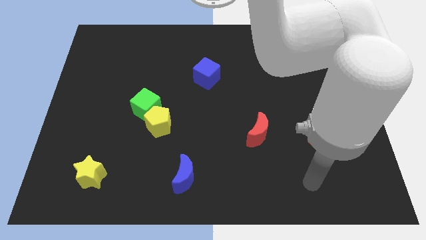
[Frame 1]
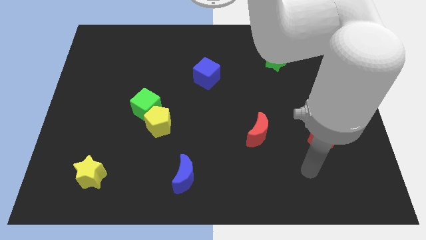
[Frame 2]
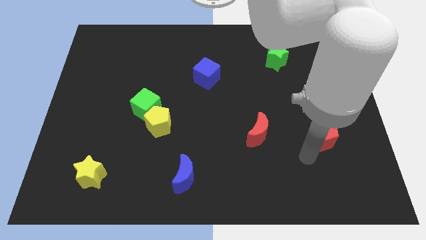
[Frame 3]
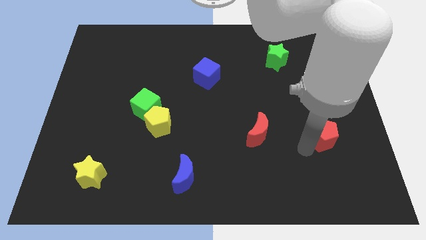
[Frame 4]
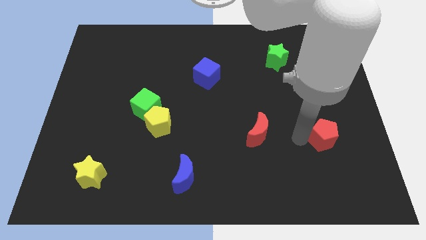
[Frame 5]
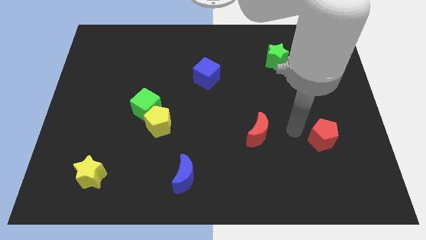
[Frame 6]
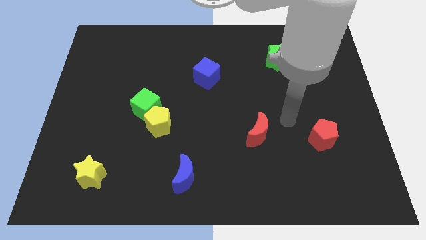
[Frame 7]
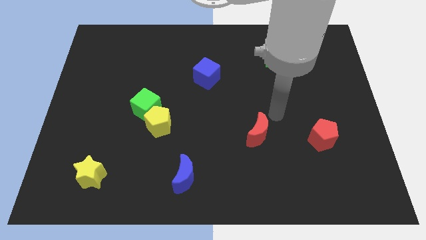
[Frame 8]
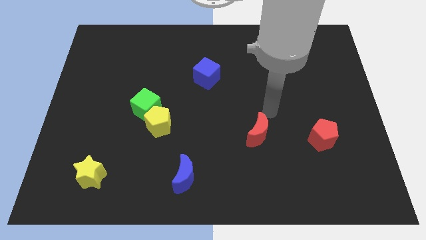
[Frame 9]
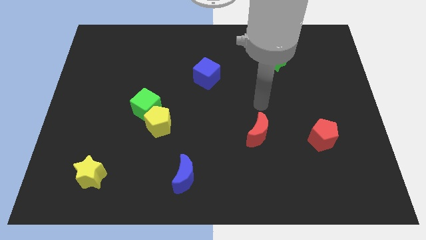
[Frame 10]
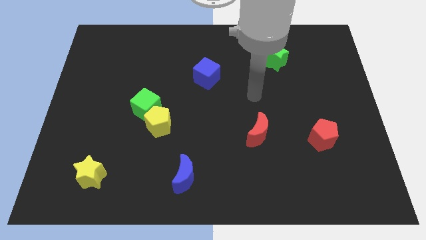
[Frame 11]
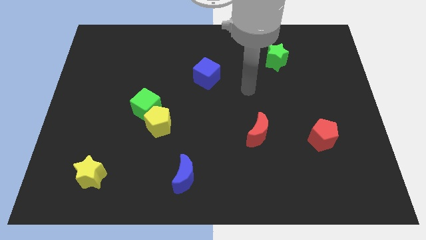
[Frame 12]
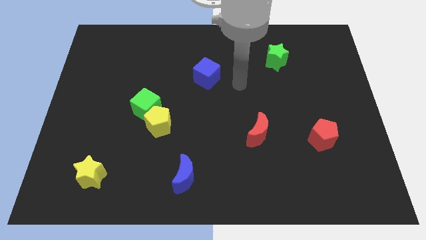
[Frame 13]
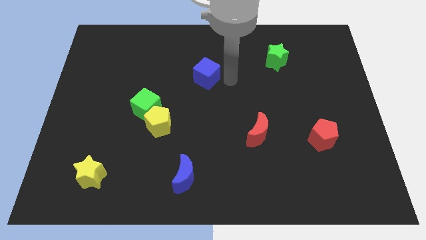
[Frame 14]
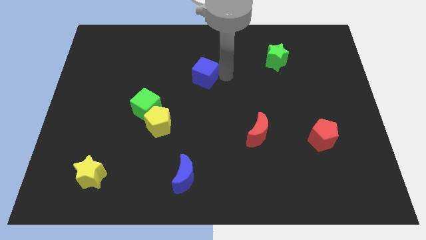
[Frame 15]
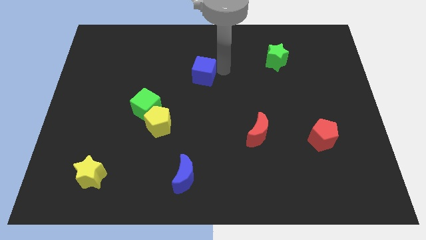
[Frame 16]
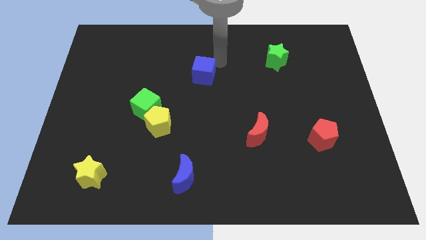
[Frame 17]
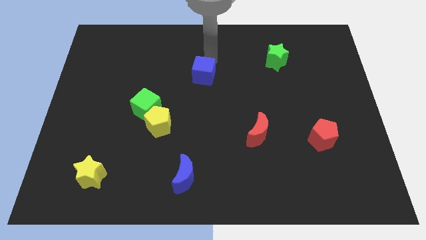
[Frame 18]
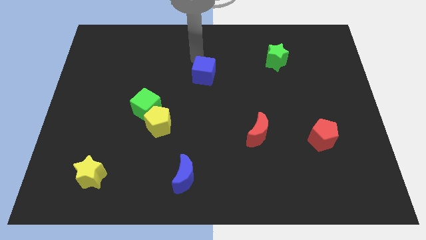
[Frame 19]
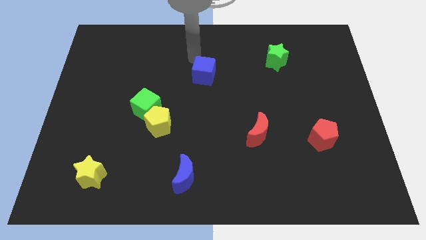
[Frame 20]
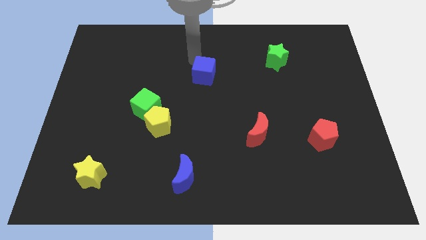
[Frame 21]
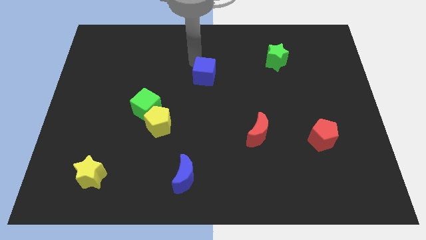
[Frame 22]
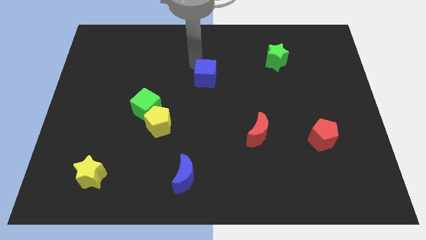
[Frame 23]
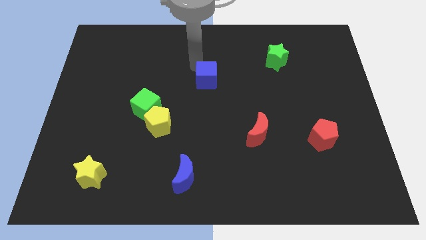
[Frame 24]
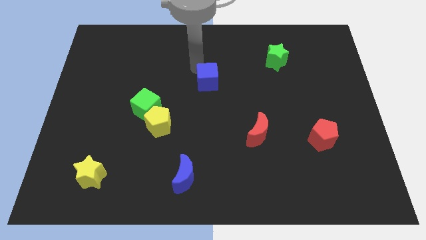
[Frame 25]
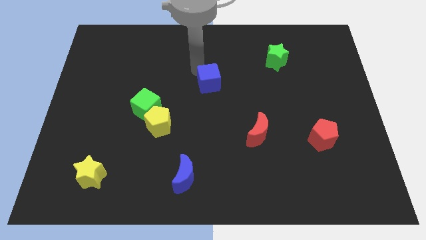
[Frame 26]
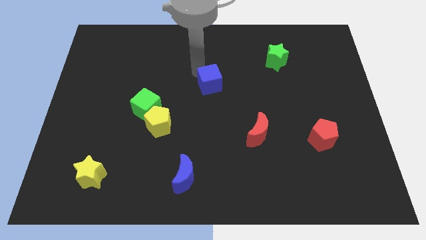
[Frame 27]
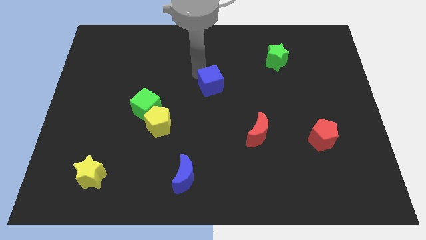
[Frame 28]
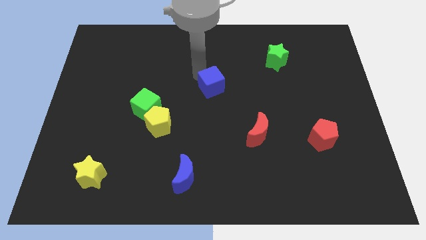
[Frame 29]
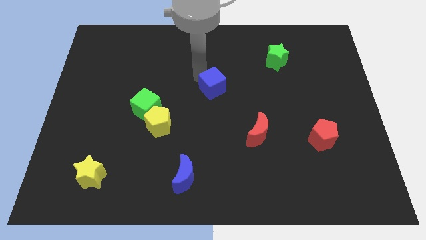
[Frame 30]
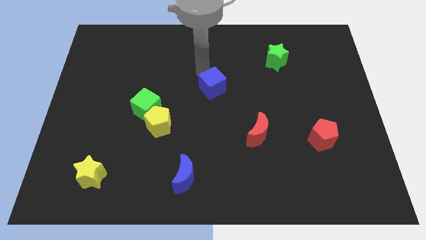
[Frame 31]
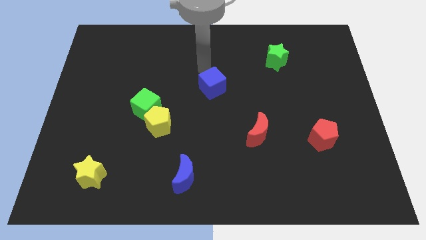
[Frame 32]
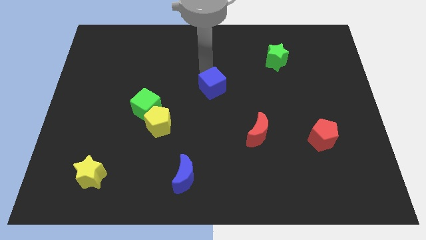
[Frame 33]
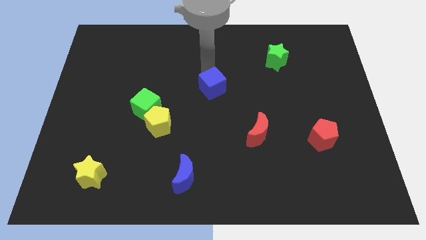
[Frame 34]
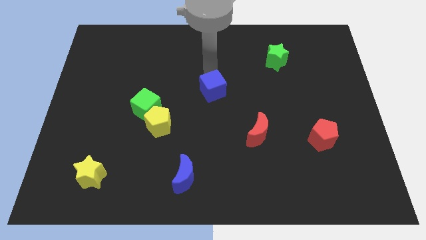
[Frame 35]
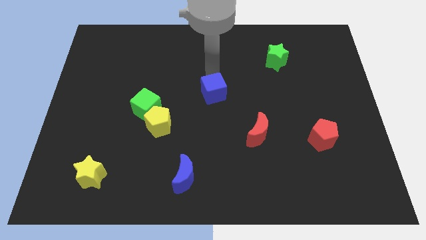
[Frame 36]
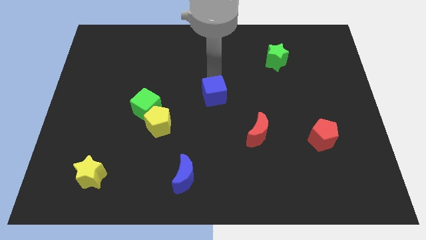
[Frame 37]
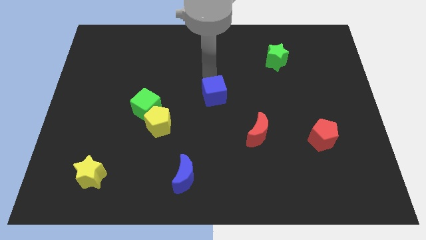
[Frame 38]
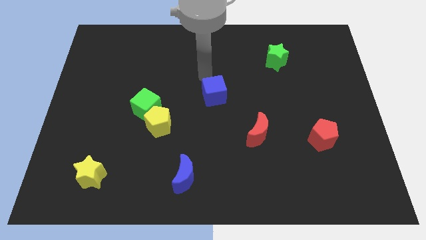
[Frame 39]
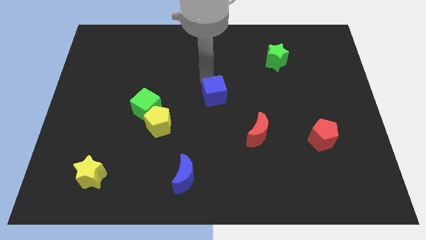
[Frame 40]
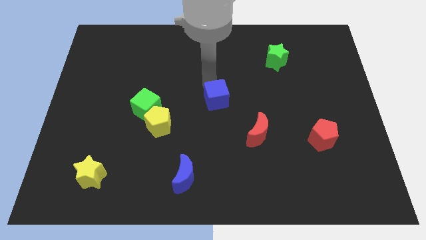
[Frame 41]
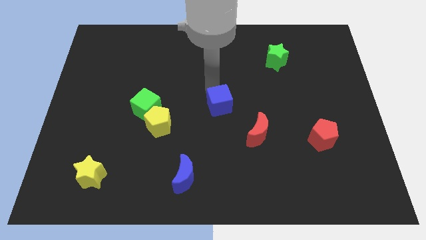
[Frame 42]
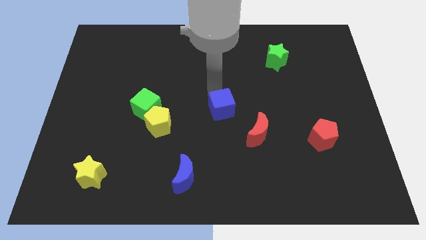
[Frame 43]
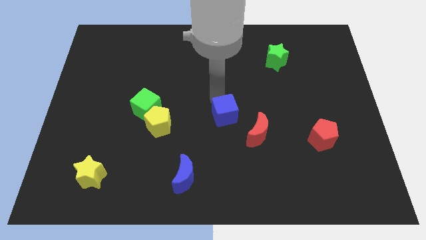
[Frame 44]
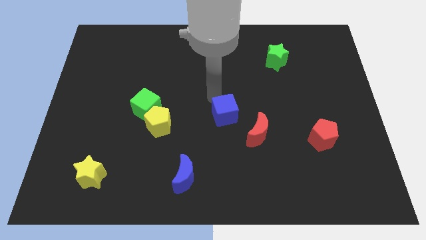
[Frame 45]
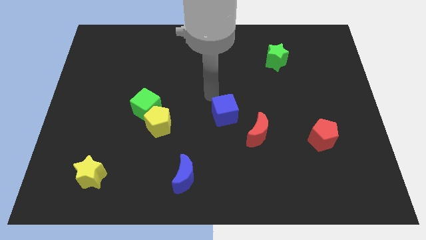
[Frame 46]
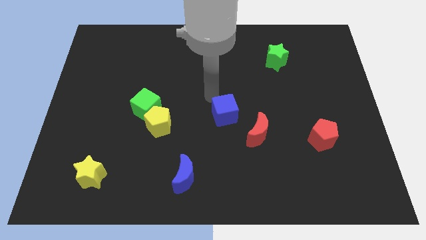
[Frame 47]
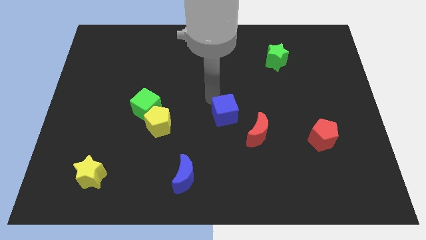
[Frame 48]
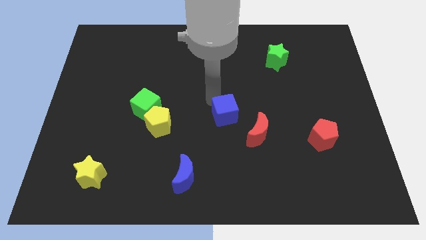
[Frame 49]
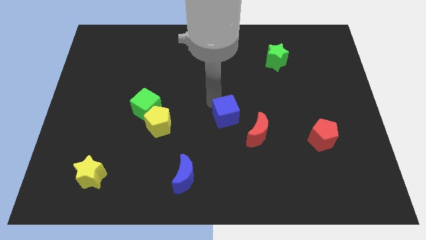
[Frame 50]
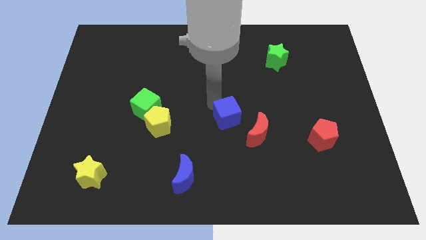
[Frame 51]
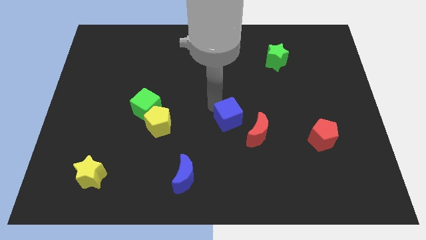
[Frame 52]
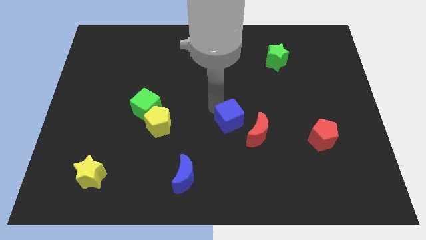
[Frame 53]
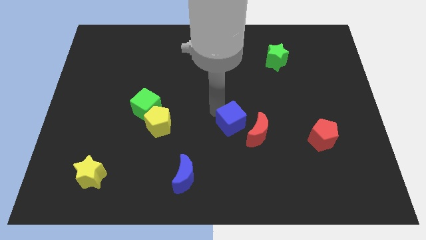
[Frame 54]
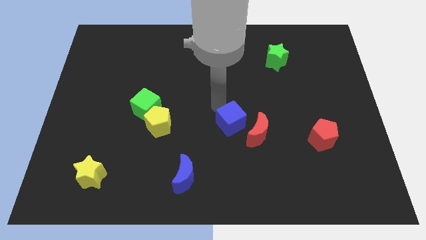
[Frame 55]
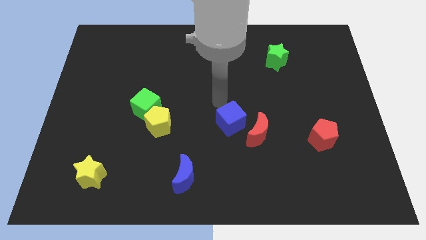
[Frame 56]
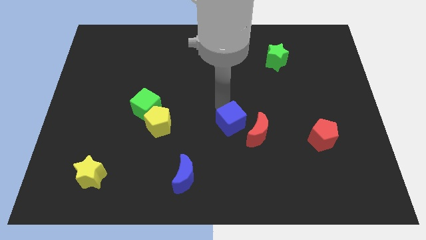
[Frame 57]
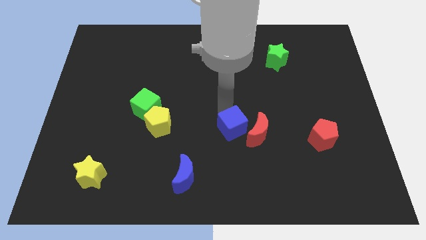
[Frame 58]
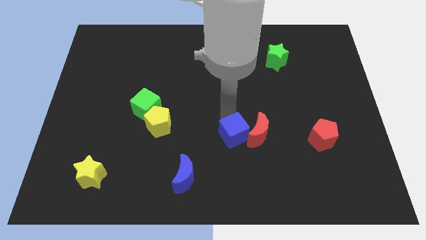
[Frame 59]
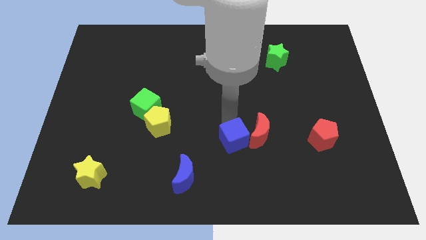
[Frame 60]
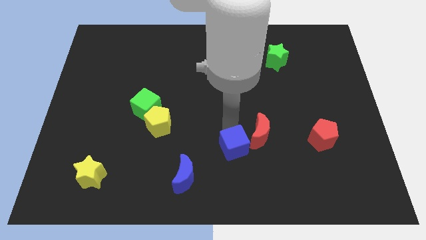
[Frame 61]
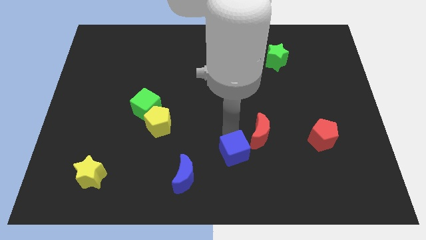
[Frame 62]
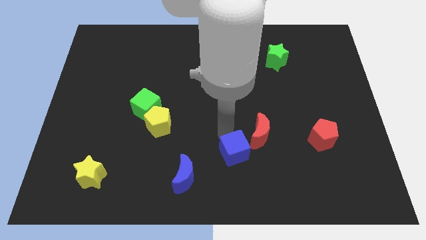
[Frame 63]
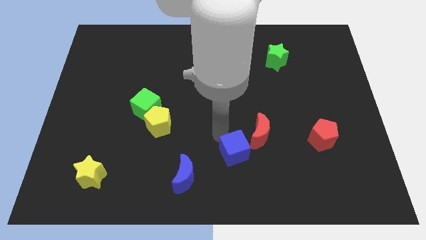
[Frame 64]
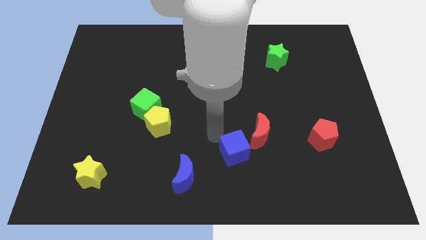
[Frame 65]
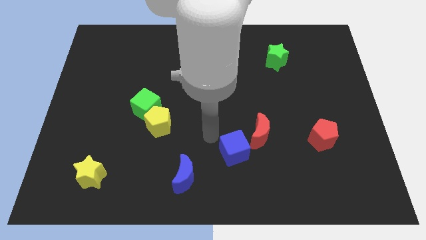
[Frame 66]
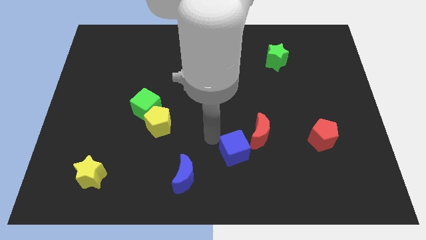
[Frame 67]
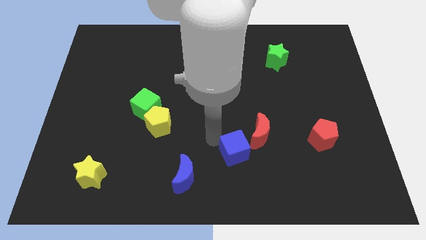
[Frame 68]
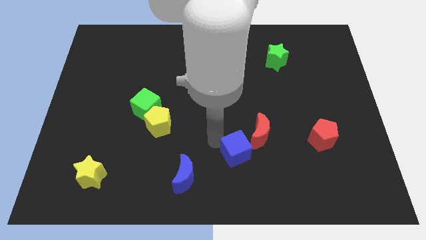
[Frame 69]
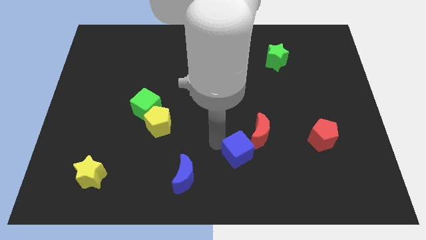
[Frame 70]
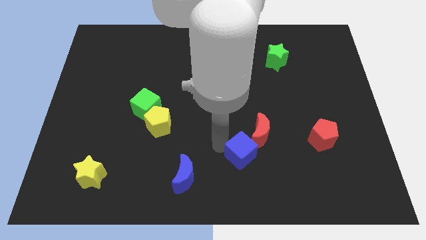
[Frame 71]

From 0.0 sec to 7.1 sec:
put the blue cube to the bottom side of the red moon
